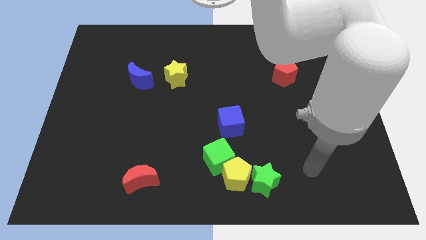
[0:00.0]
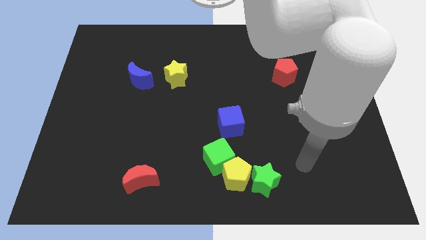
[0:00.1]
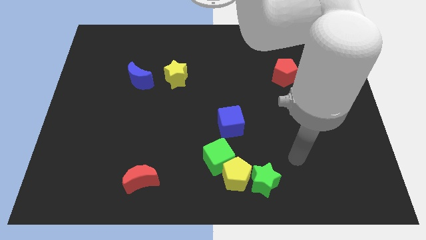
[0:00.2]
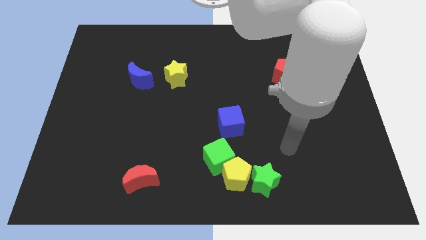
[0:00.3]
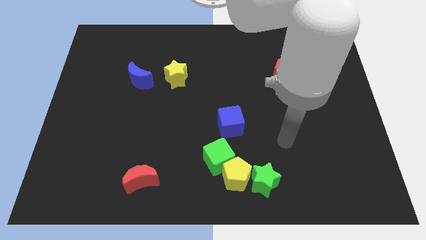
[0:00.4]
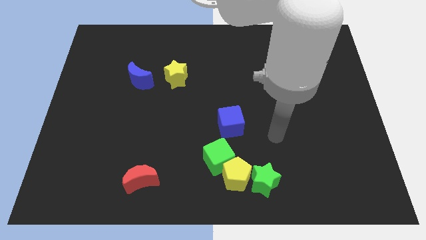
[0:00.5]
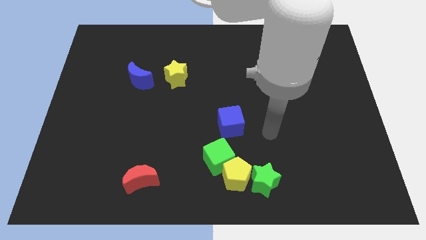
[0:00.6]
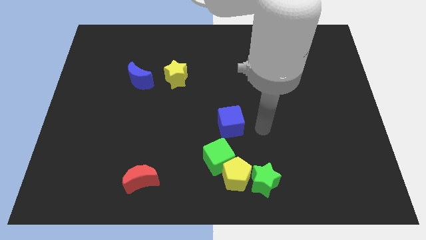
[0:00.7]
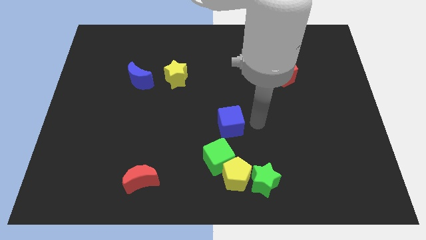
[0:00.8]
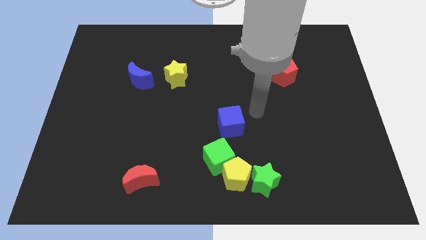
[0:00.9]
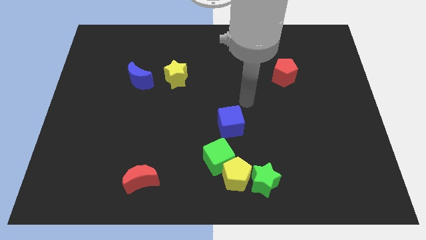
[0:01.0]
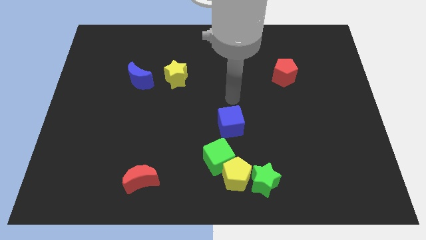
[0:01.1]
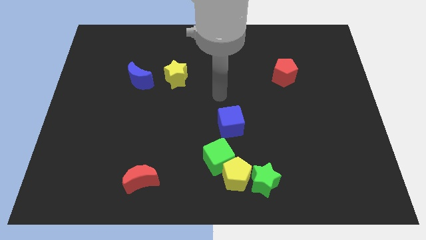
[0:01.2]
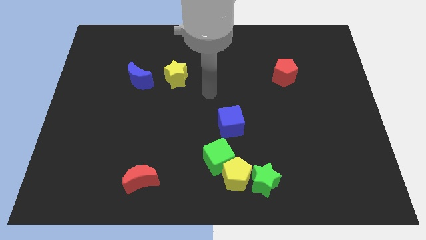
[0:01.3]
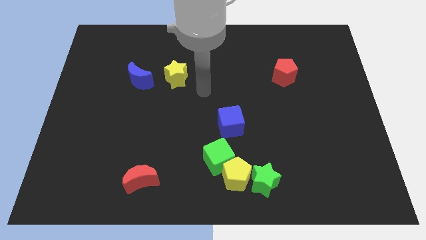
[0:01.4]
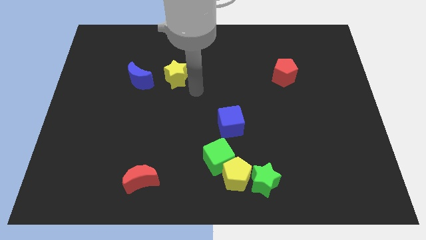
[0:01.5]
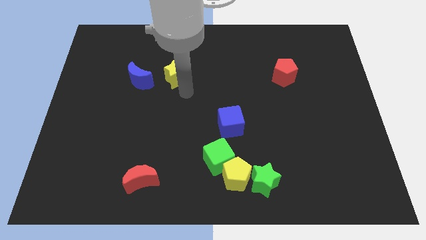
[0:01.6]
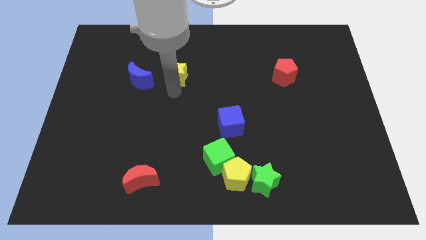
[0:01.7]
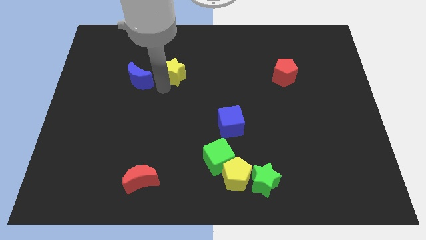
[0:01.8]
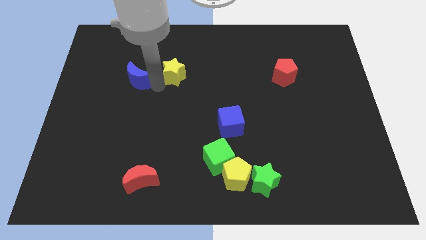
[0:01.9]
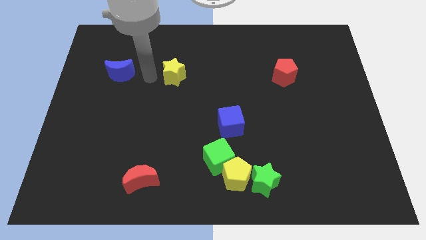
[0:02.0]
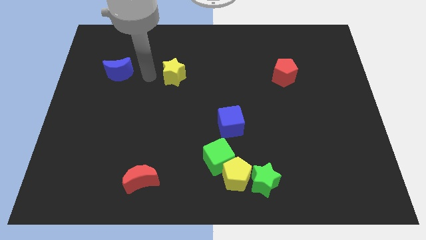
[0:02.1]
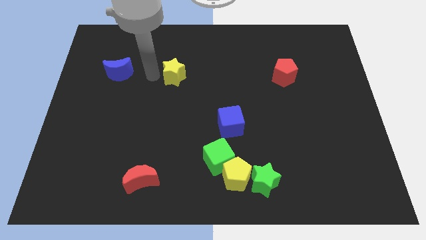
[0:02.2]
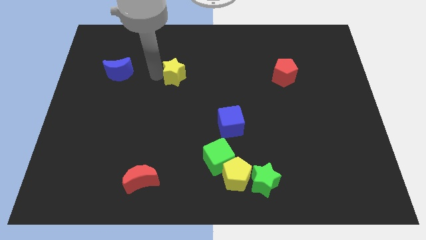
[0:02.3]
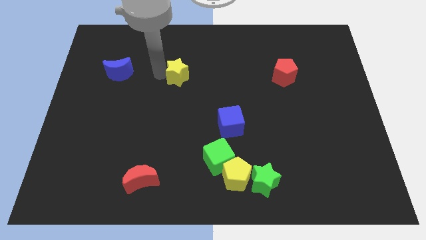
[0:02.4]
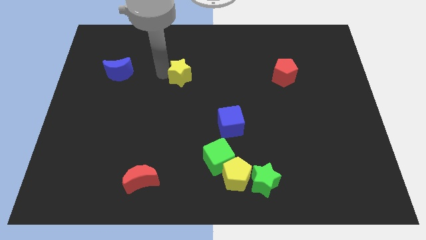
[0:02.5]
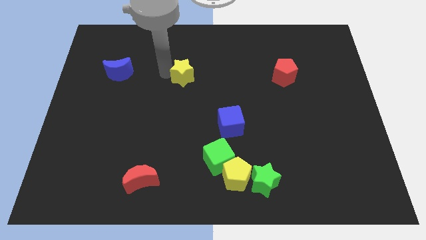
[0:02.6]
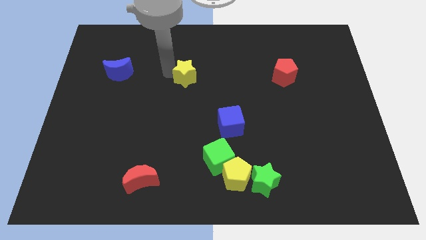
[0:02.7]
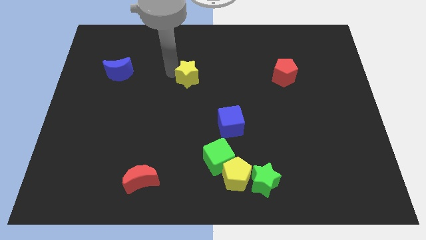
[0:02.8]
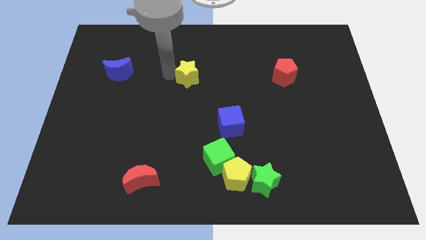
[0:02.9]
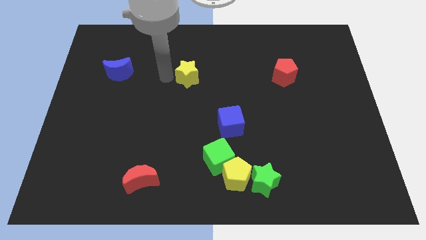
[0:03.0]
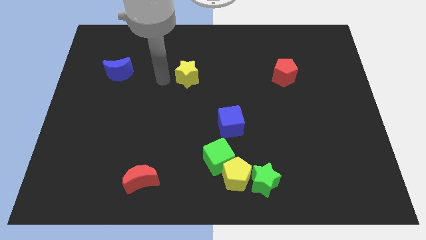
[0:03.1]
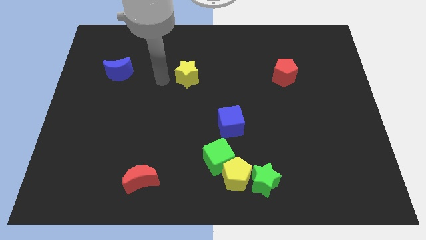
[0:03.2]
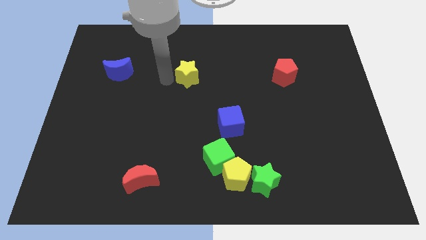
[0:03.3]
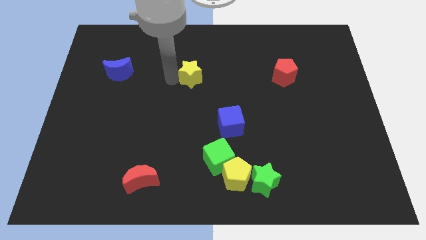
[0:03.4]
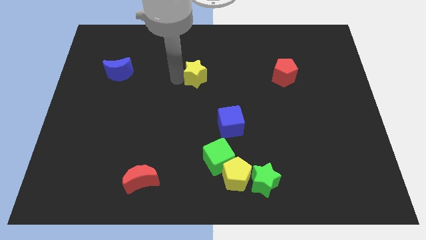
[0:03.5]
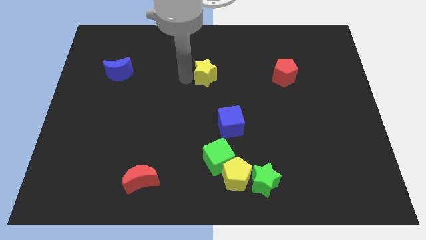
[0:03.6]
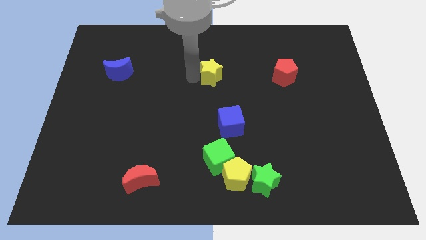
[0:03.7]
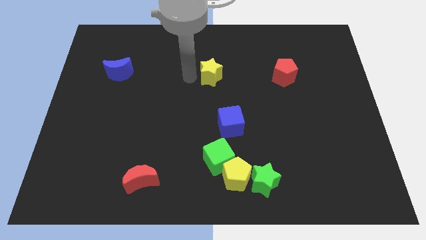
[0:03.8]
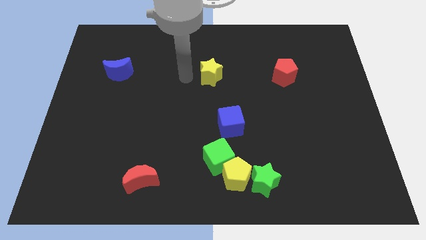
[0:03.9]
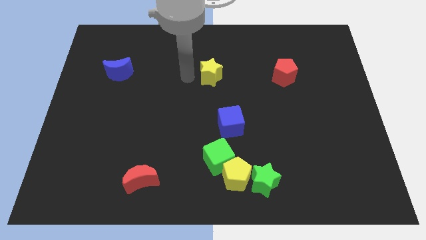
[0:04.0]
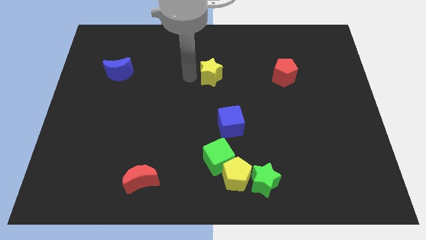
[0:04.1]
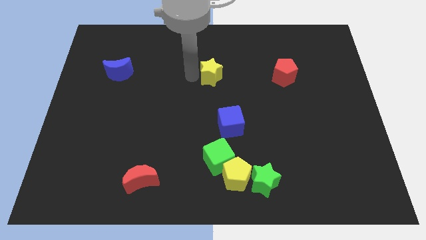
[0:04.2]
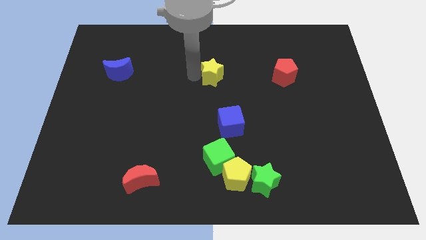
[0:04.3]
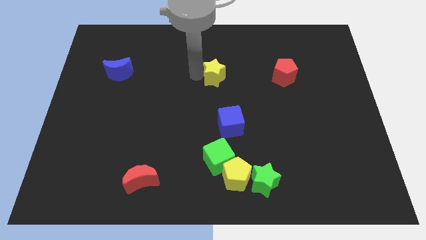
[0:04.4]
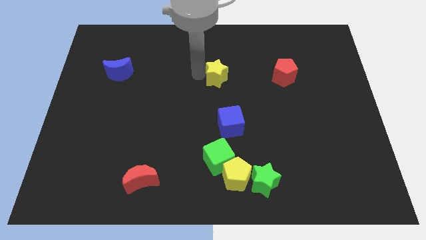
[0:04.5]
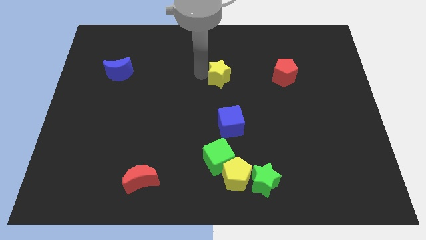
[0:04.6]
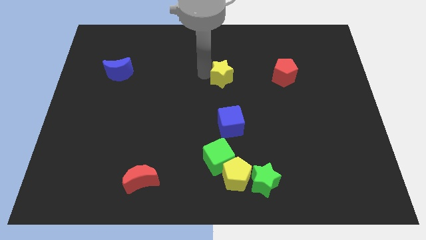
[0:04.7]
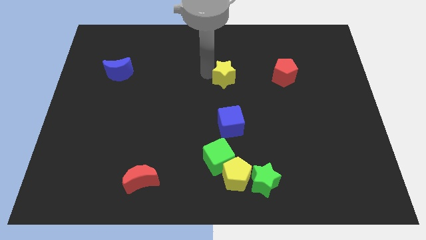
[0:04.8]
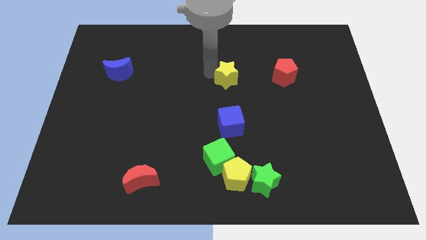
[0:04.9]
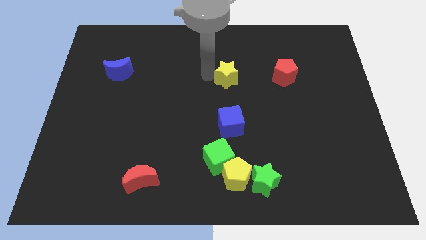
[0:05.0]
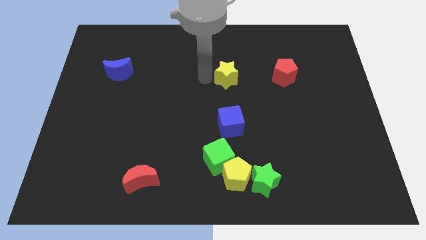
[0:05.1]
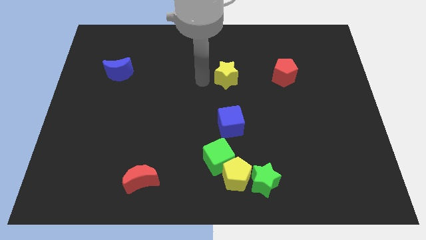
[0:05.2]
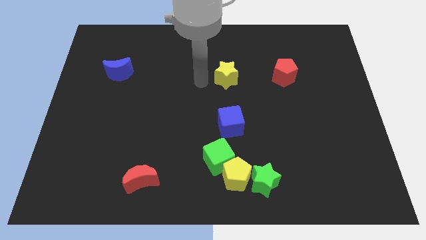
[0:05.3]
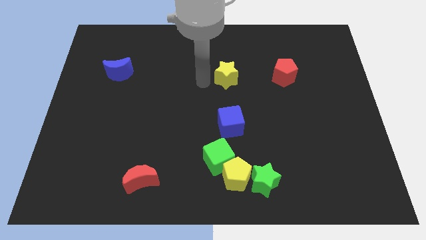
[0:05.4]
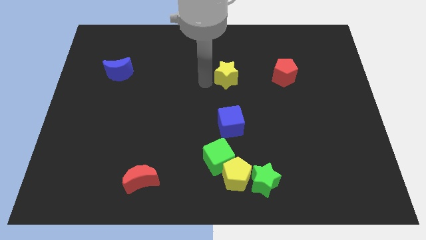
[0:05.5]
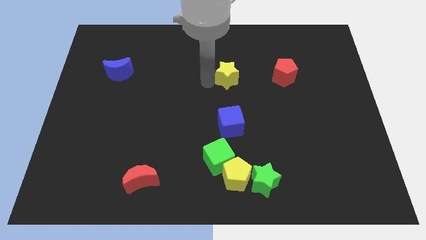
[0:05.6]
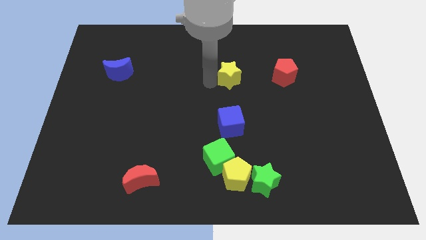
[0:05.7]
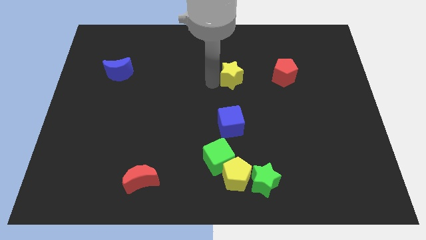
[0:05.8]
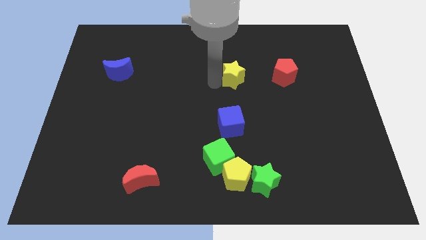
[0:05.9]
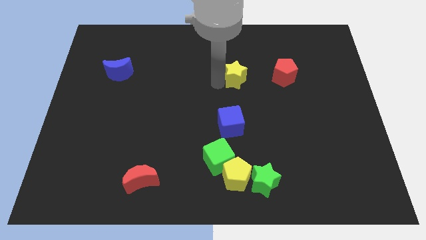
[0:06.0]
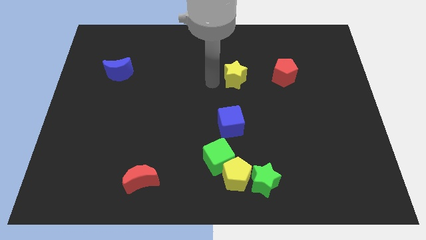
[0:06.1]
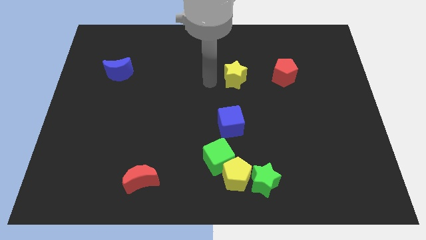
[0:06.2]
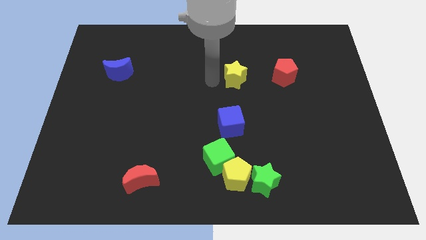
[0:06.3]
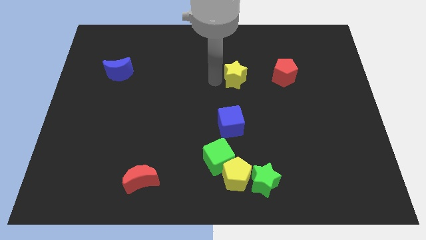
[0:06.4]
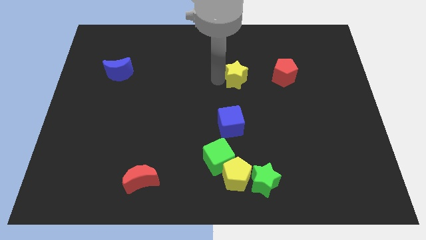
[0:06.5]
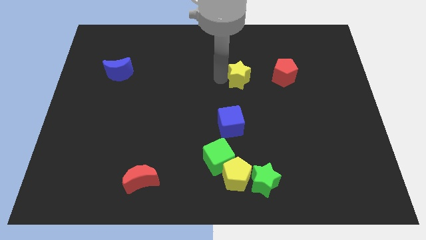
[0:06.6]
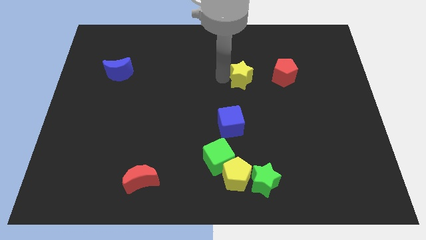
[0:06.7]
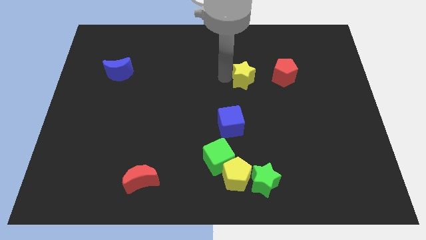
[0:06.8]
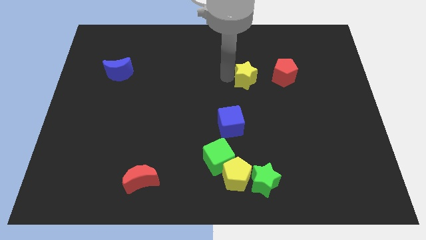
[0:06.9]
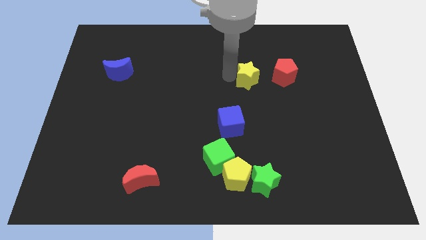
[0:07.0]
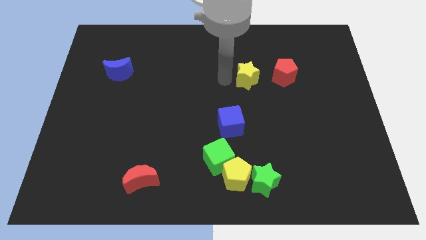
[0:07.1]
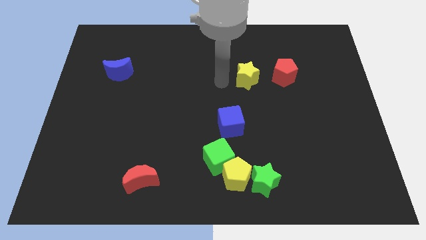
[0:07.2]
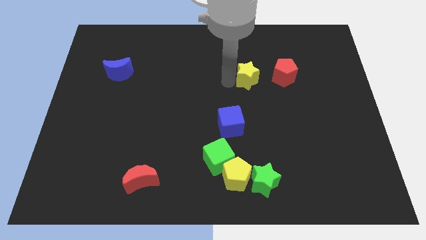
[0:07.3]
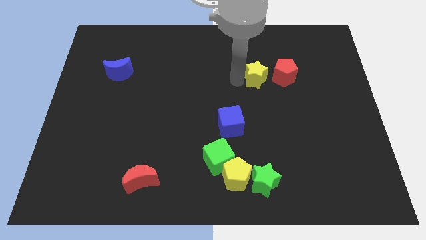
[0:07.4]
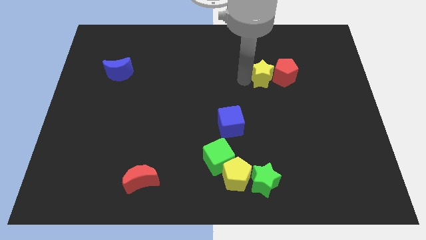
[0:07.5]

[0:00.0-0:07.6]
push the yellow star close to the red pentagon

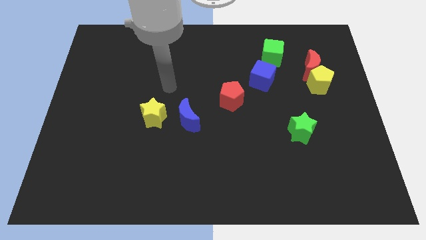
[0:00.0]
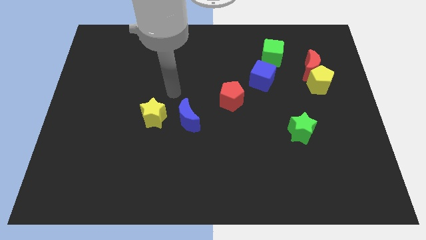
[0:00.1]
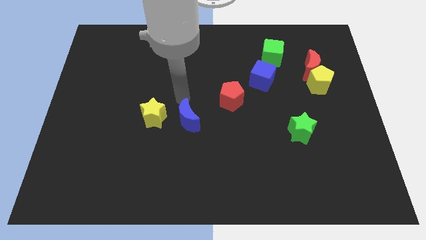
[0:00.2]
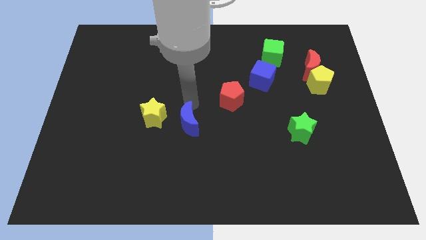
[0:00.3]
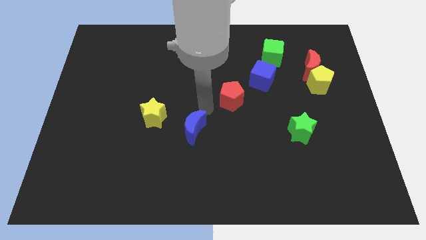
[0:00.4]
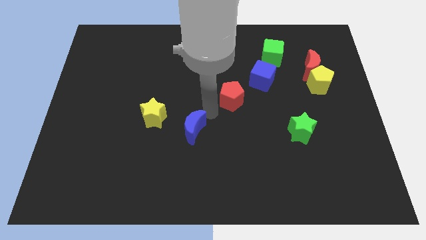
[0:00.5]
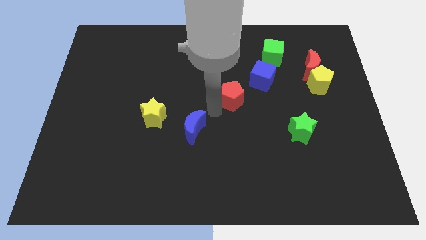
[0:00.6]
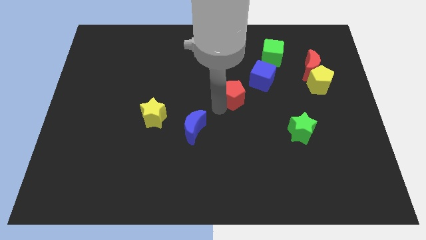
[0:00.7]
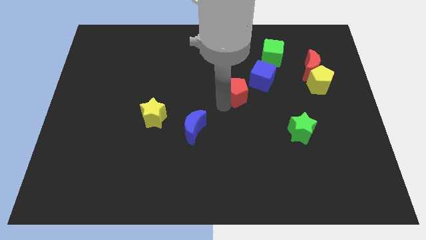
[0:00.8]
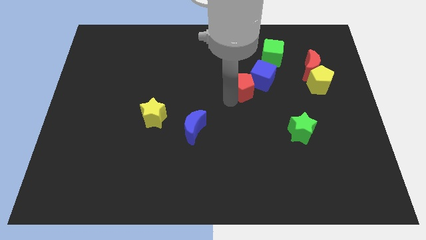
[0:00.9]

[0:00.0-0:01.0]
move the red pentagon close to the blue cube
